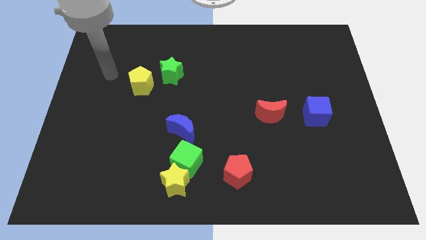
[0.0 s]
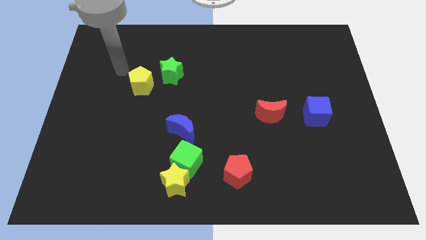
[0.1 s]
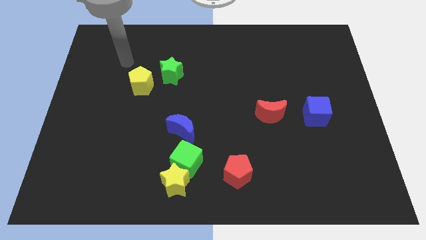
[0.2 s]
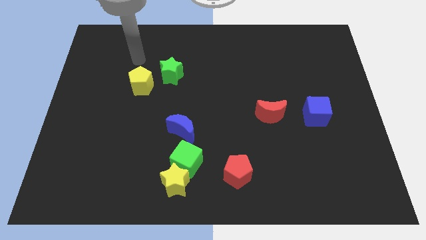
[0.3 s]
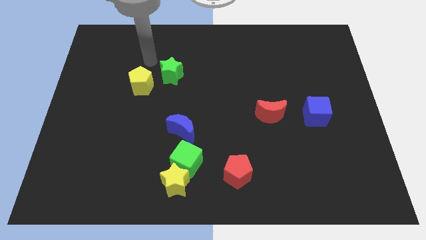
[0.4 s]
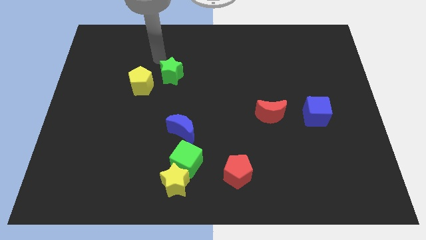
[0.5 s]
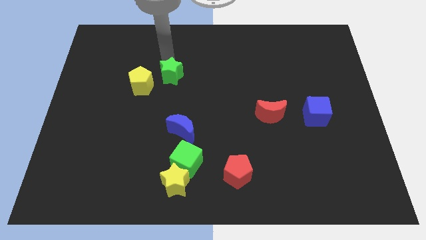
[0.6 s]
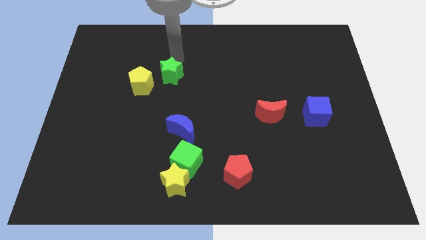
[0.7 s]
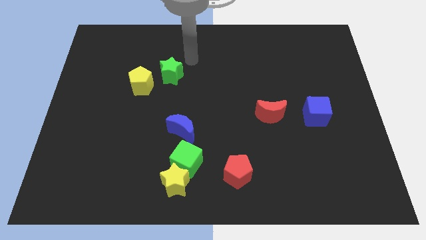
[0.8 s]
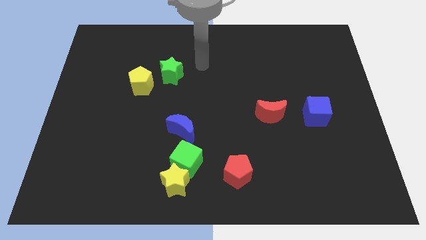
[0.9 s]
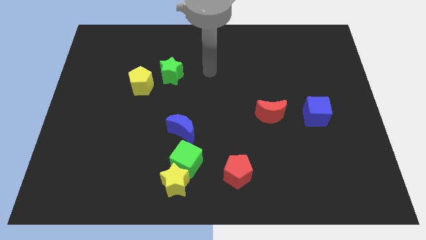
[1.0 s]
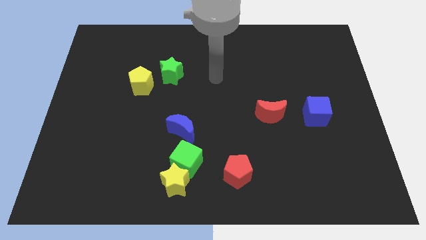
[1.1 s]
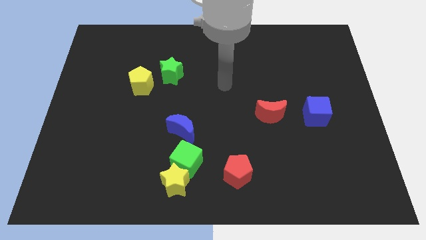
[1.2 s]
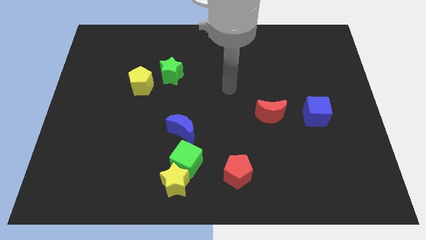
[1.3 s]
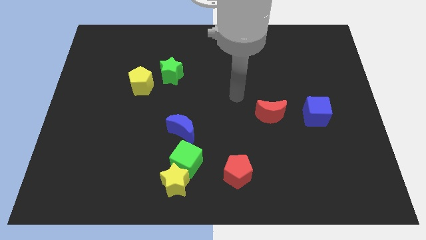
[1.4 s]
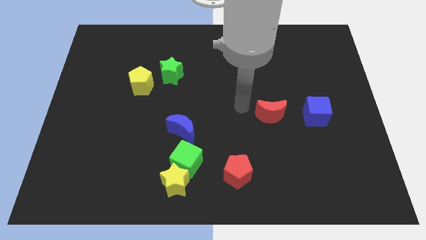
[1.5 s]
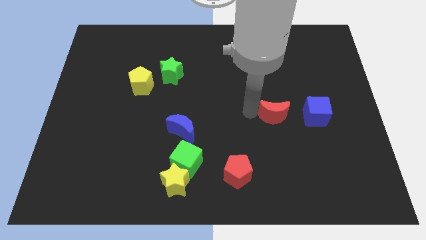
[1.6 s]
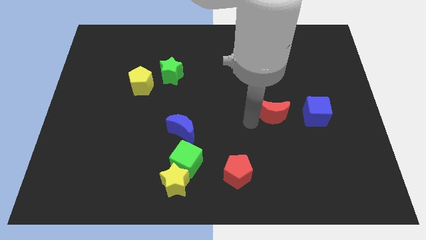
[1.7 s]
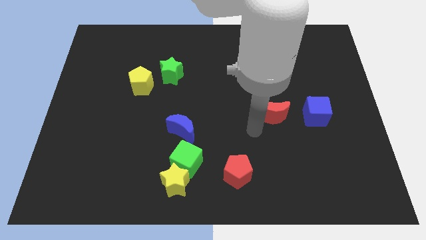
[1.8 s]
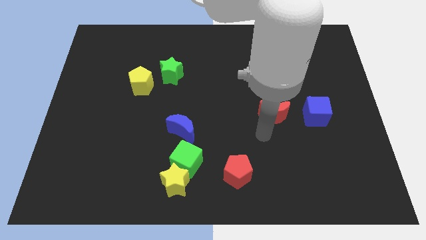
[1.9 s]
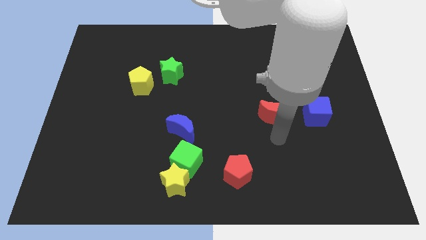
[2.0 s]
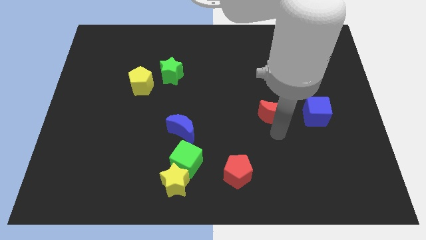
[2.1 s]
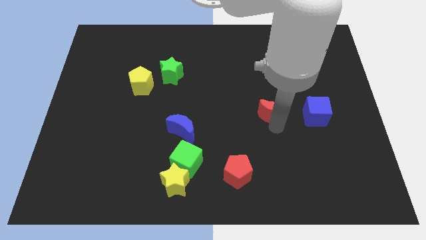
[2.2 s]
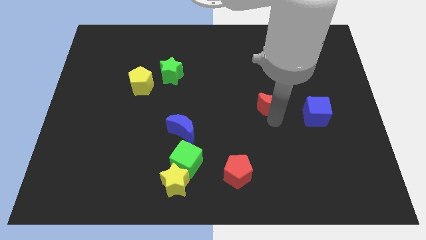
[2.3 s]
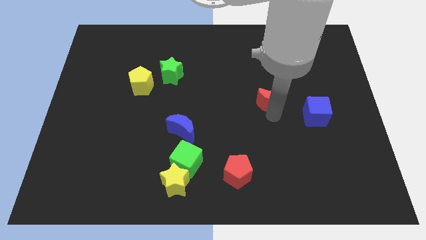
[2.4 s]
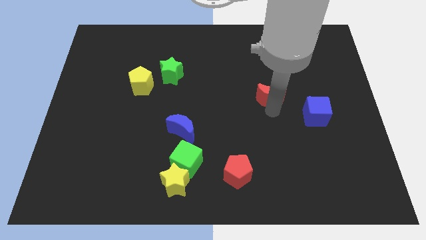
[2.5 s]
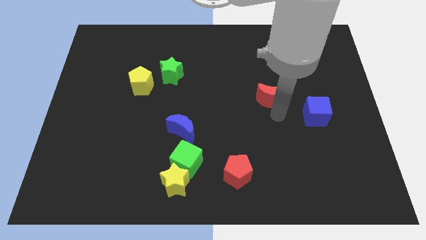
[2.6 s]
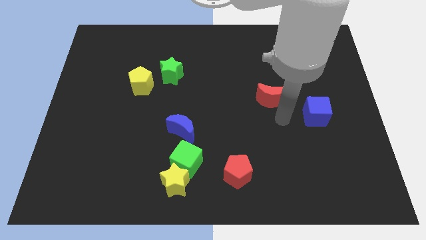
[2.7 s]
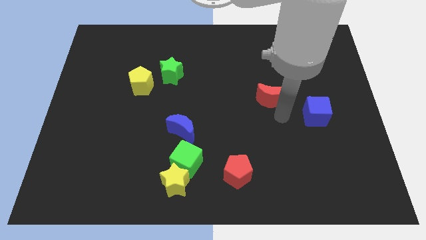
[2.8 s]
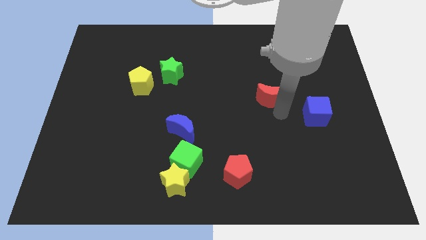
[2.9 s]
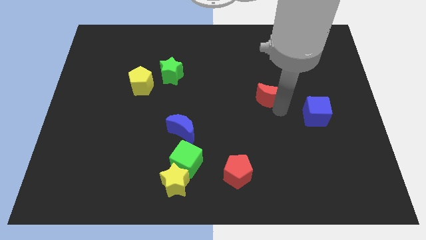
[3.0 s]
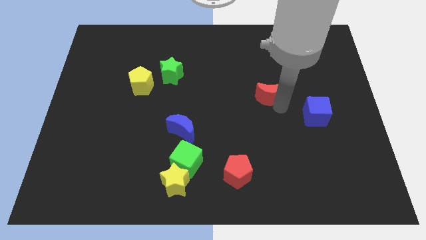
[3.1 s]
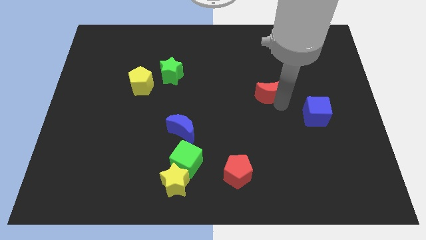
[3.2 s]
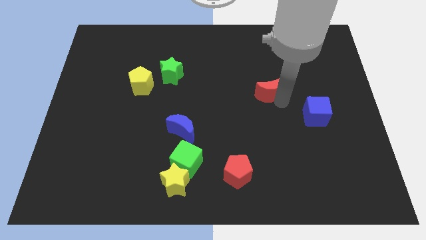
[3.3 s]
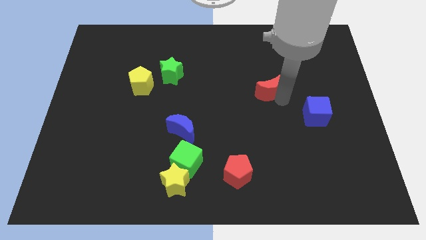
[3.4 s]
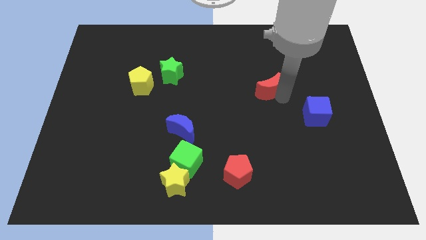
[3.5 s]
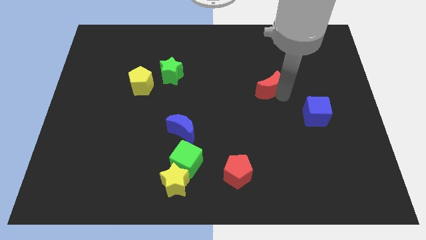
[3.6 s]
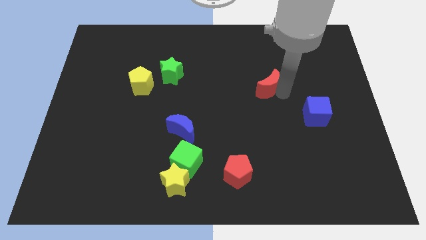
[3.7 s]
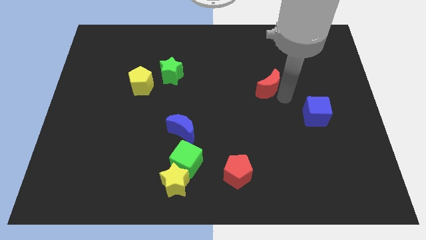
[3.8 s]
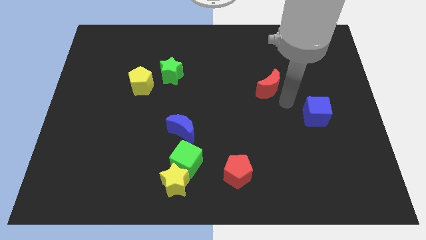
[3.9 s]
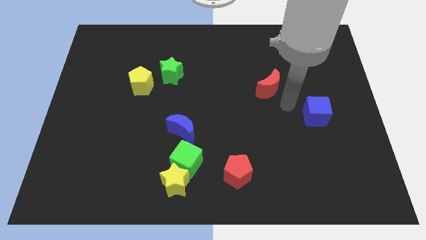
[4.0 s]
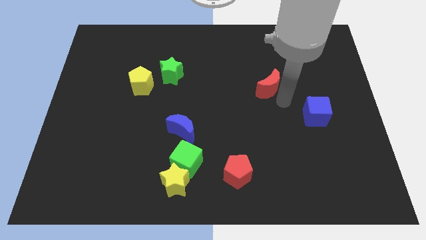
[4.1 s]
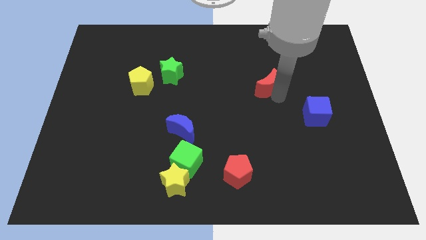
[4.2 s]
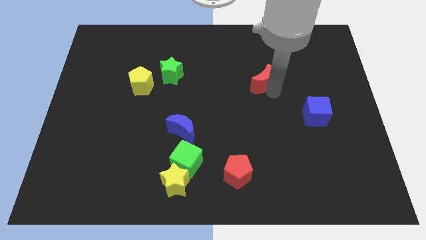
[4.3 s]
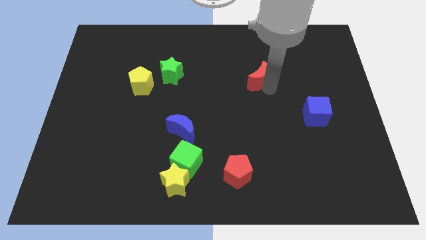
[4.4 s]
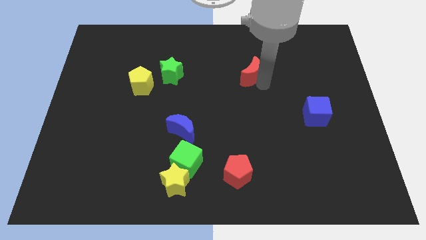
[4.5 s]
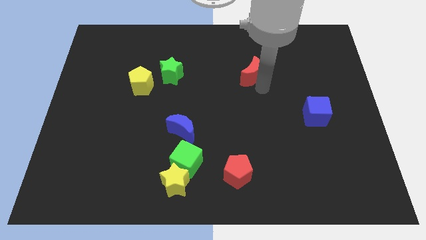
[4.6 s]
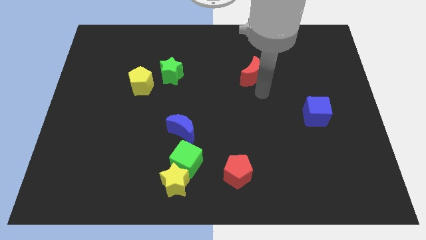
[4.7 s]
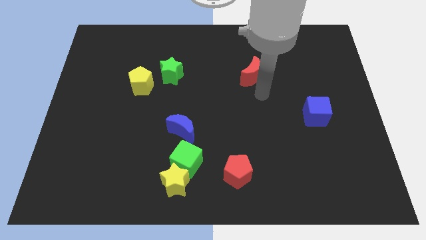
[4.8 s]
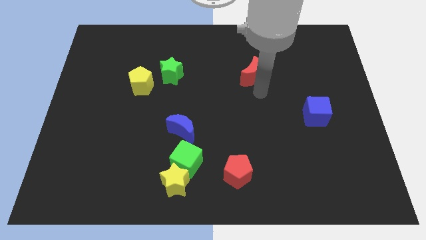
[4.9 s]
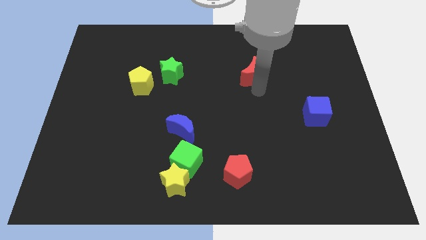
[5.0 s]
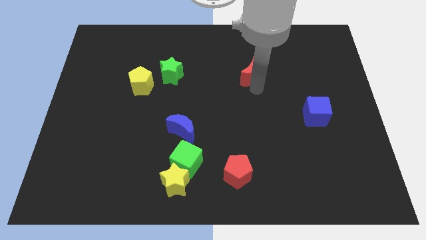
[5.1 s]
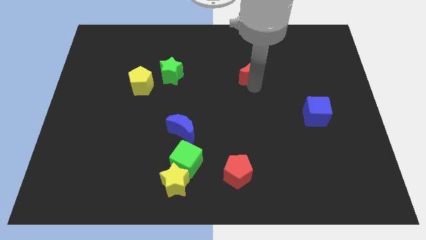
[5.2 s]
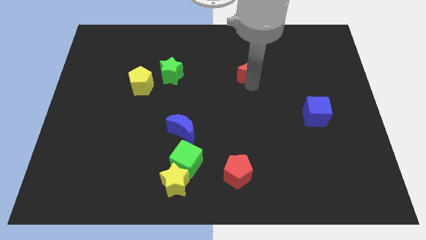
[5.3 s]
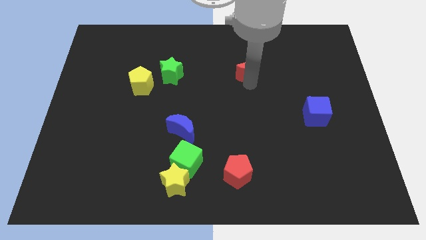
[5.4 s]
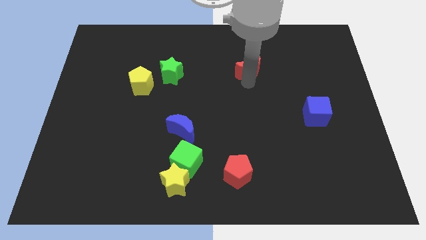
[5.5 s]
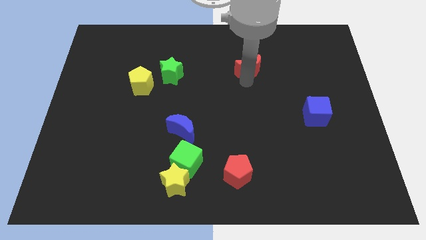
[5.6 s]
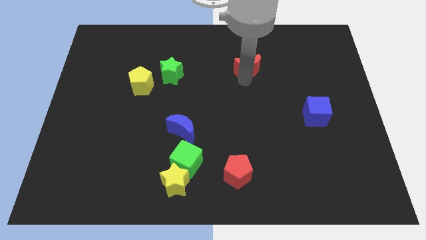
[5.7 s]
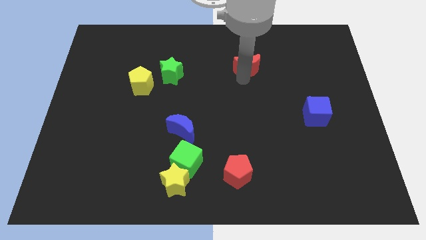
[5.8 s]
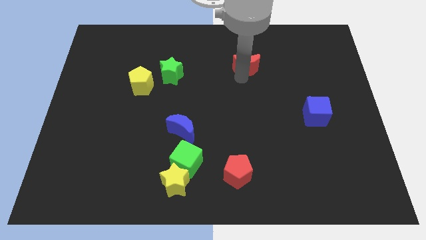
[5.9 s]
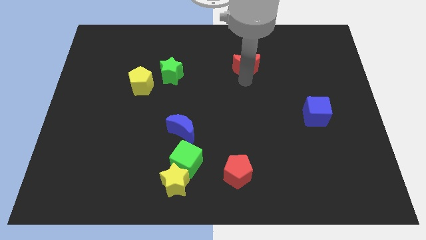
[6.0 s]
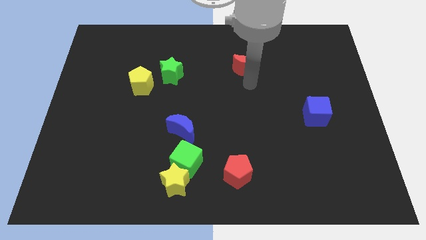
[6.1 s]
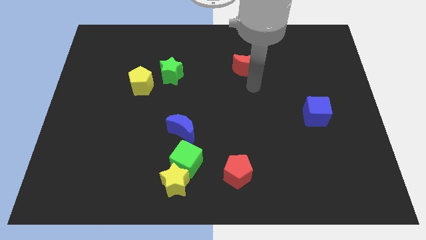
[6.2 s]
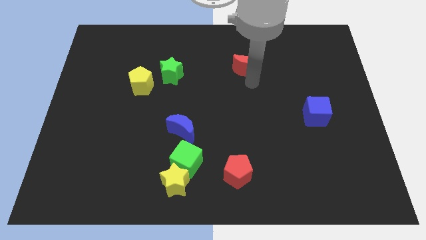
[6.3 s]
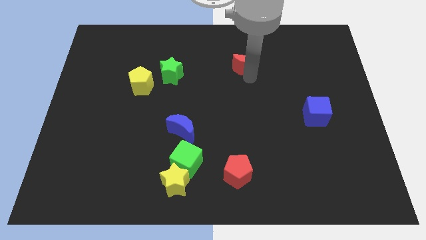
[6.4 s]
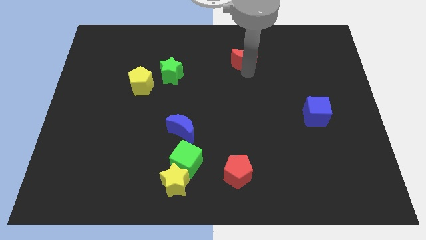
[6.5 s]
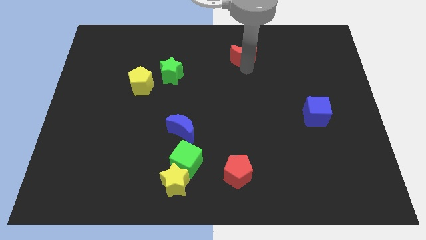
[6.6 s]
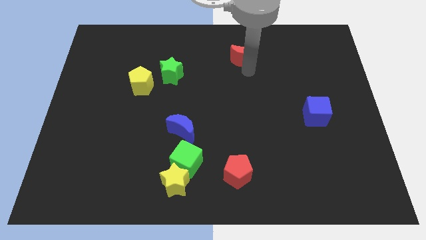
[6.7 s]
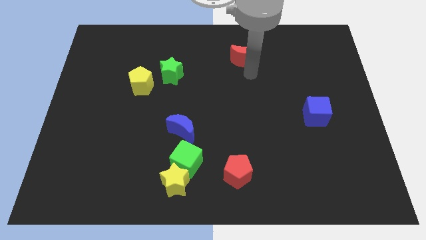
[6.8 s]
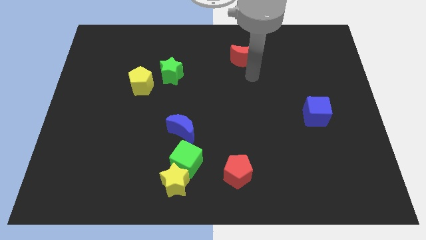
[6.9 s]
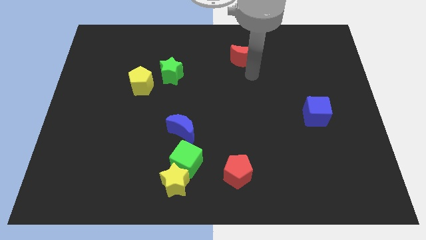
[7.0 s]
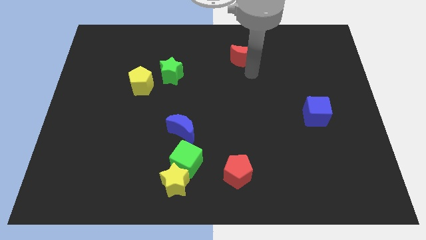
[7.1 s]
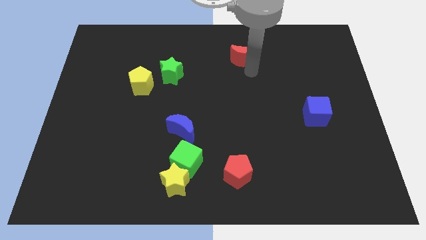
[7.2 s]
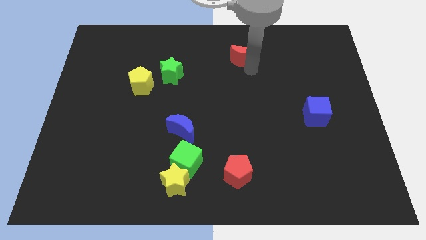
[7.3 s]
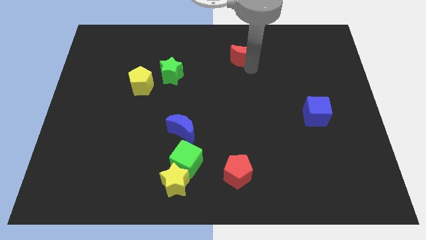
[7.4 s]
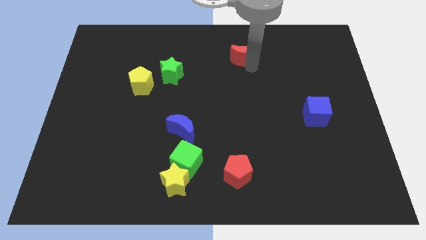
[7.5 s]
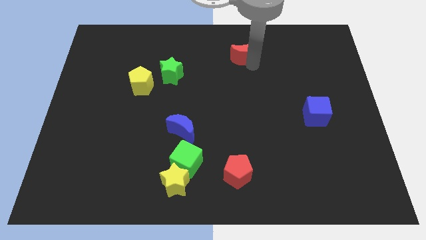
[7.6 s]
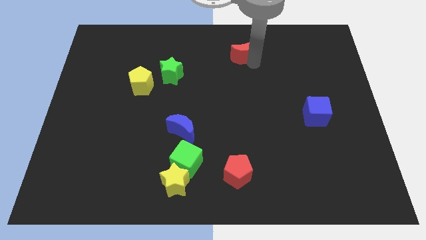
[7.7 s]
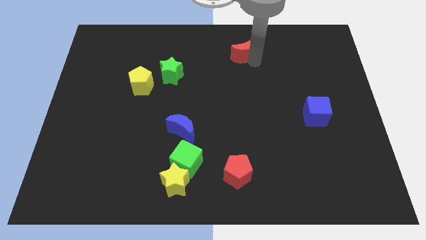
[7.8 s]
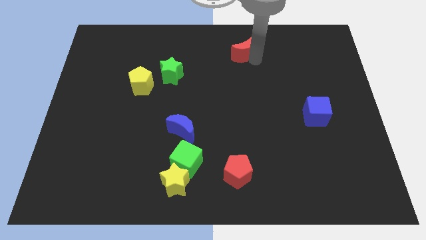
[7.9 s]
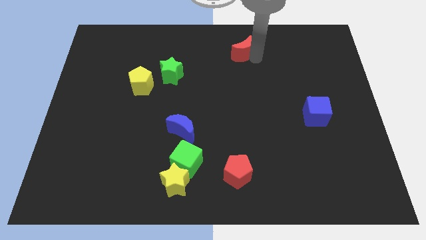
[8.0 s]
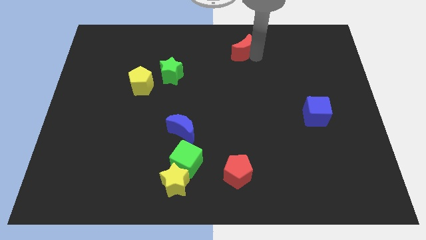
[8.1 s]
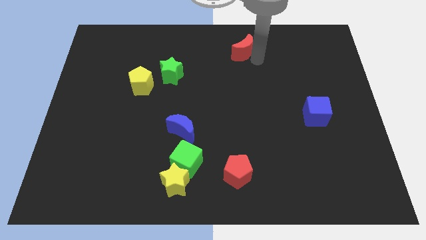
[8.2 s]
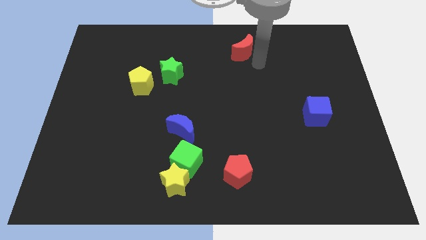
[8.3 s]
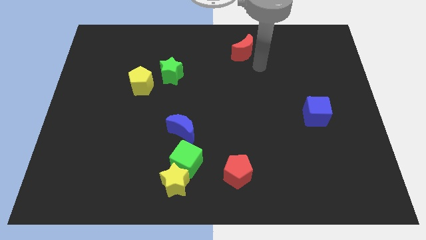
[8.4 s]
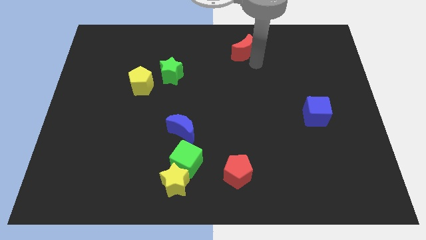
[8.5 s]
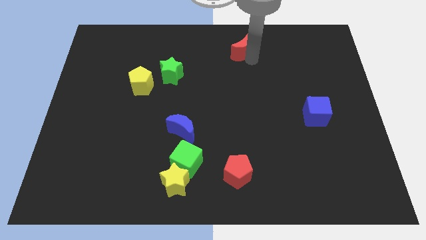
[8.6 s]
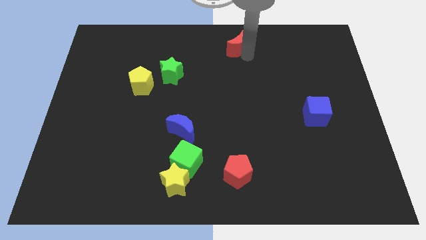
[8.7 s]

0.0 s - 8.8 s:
push the red moon to the top side
